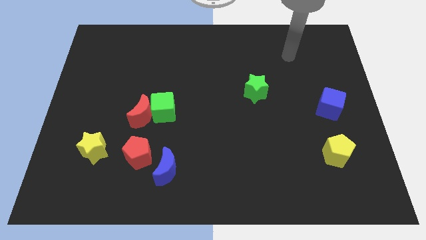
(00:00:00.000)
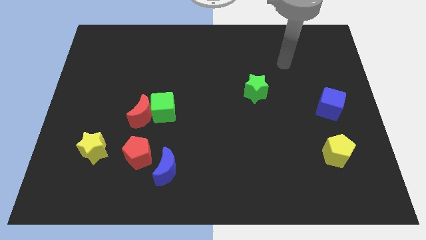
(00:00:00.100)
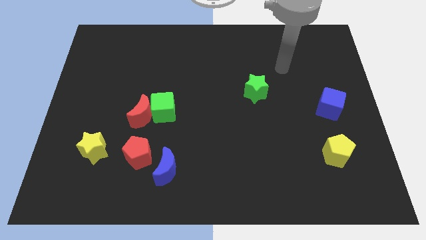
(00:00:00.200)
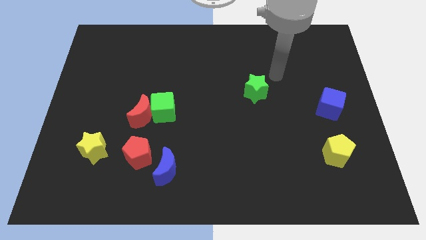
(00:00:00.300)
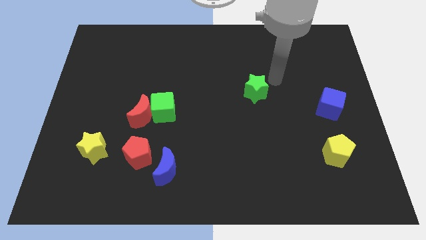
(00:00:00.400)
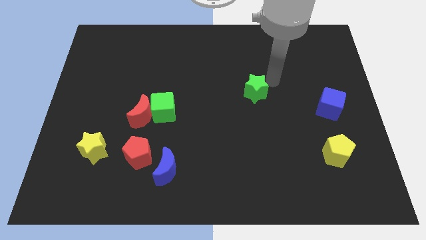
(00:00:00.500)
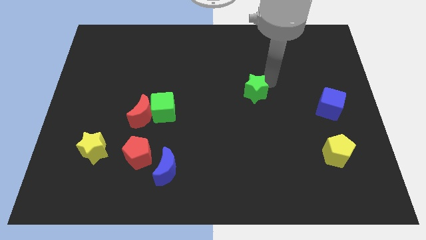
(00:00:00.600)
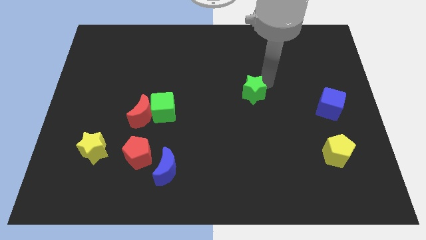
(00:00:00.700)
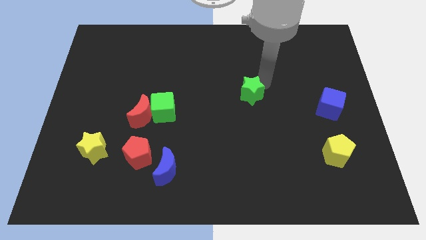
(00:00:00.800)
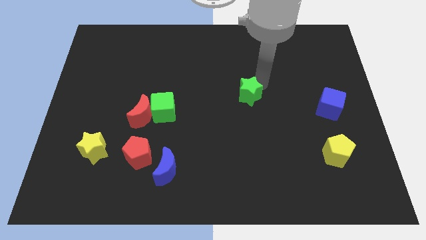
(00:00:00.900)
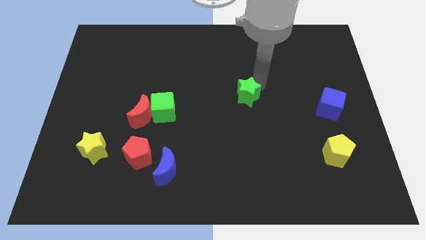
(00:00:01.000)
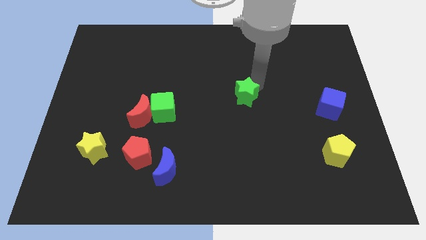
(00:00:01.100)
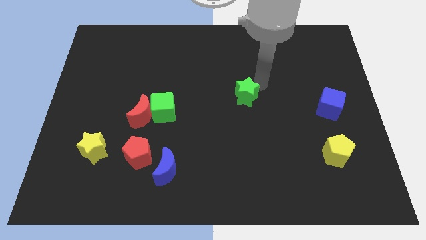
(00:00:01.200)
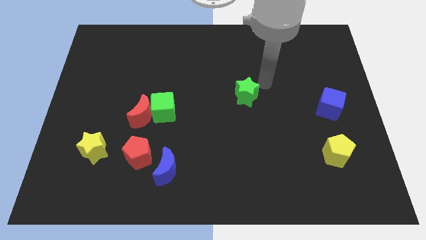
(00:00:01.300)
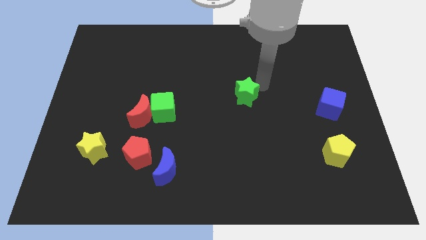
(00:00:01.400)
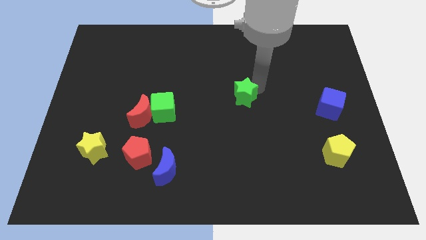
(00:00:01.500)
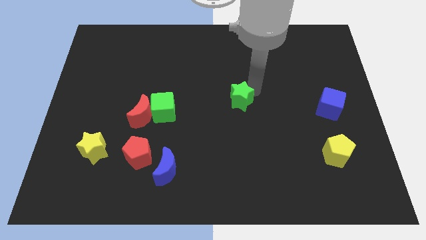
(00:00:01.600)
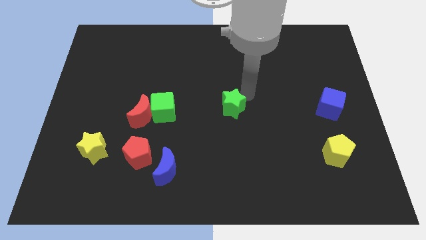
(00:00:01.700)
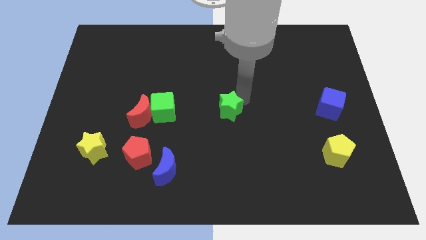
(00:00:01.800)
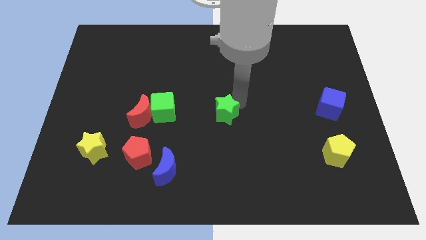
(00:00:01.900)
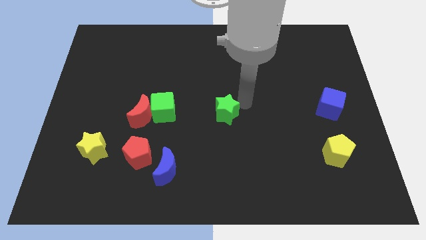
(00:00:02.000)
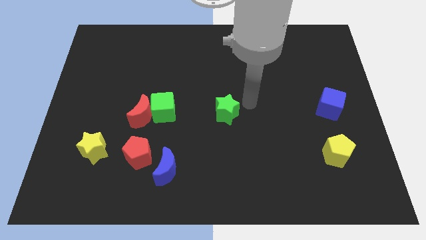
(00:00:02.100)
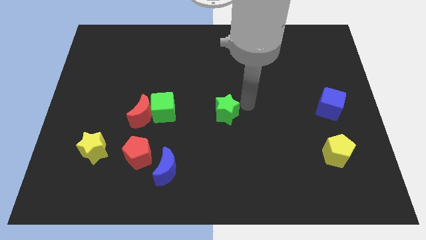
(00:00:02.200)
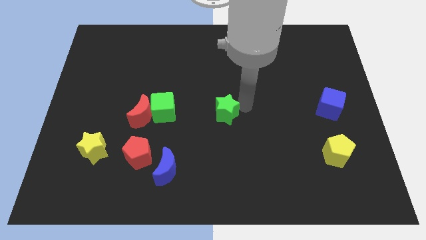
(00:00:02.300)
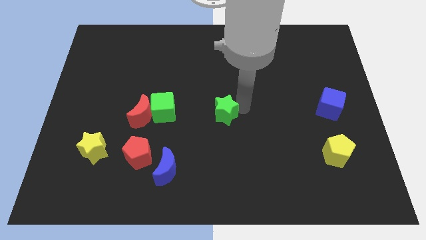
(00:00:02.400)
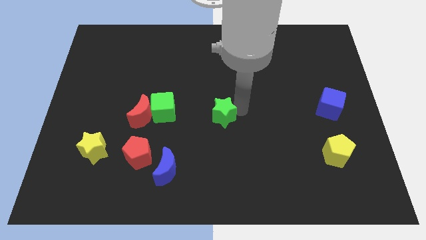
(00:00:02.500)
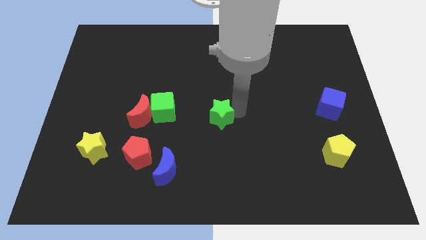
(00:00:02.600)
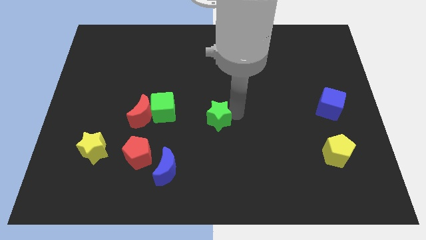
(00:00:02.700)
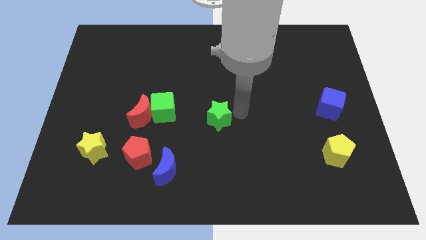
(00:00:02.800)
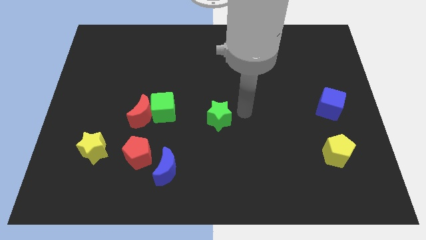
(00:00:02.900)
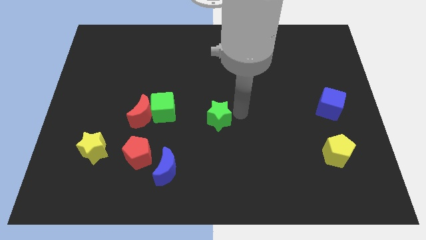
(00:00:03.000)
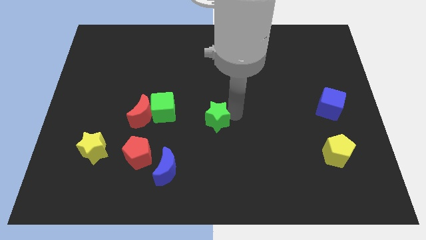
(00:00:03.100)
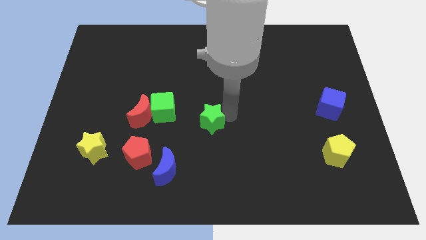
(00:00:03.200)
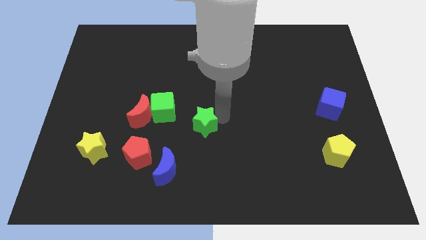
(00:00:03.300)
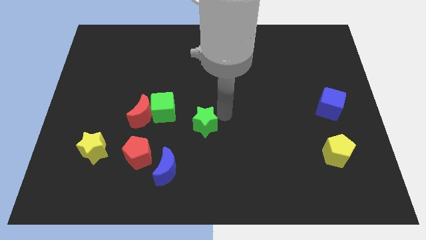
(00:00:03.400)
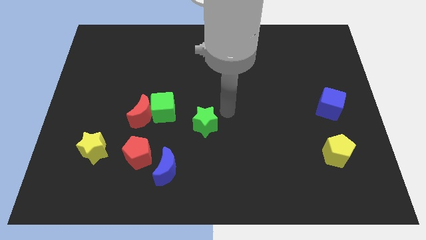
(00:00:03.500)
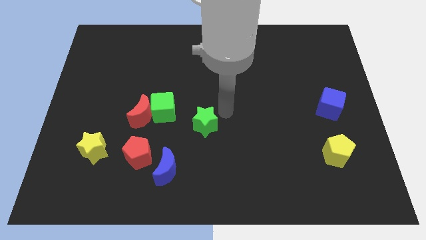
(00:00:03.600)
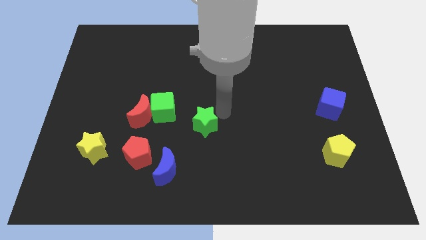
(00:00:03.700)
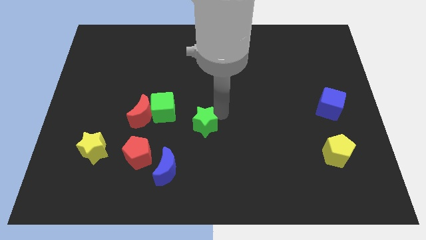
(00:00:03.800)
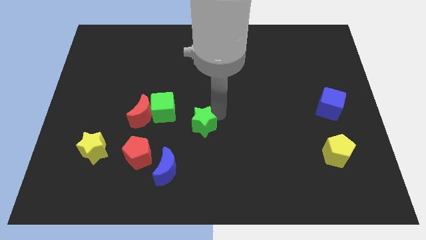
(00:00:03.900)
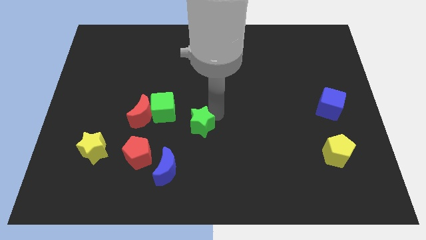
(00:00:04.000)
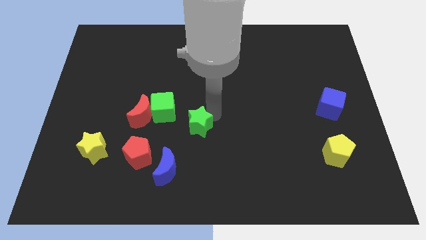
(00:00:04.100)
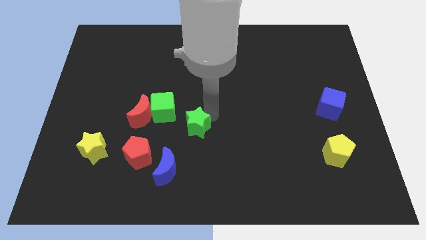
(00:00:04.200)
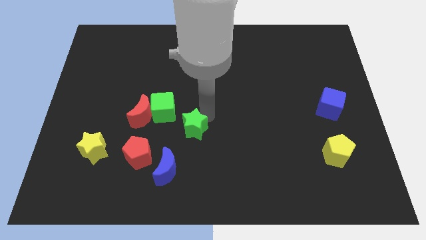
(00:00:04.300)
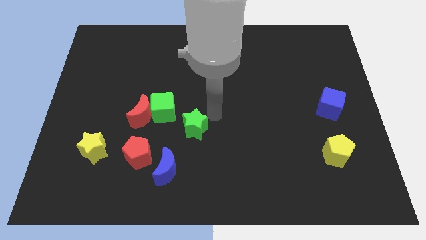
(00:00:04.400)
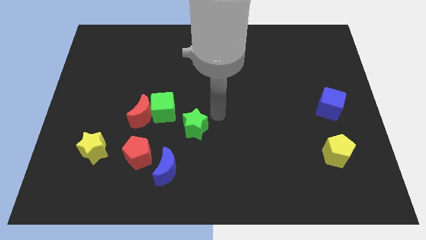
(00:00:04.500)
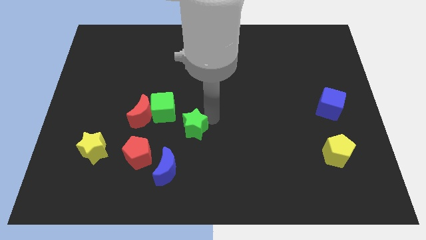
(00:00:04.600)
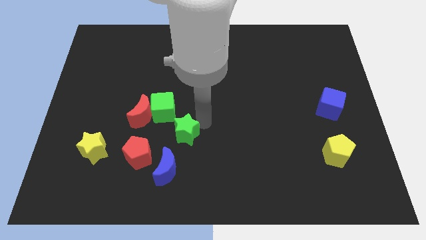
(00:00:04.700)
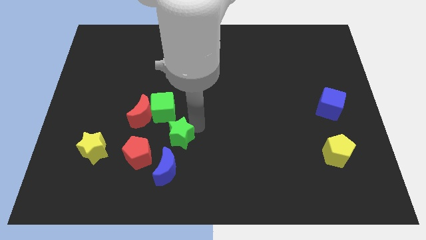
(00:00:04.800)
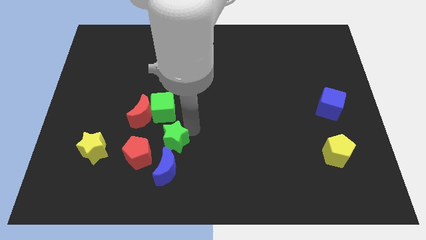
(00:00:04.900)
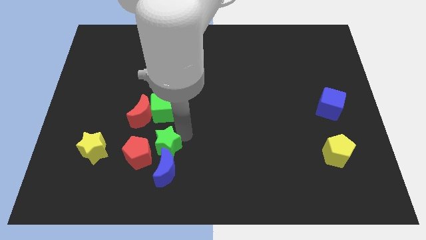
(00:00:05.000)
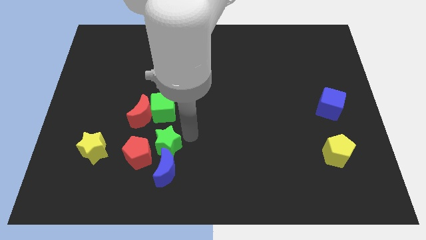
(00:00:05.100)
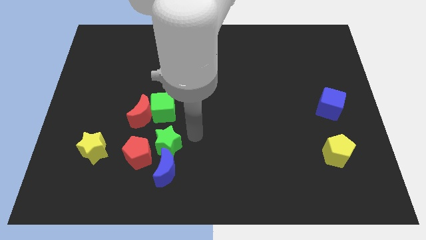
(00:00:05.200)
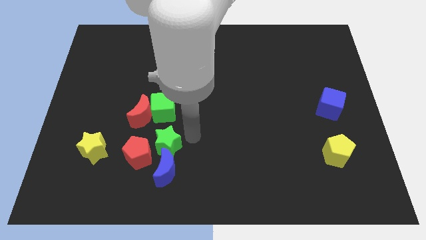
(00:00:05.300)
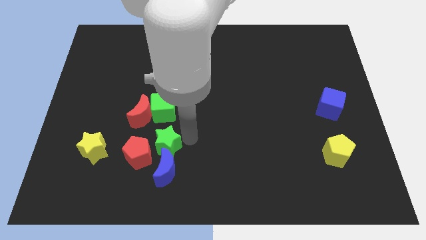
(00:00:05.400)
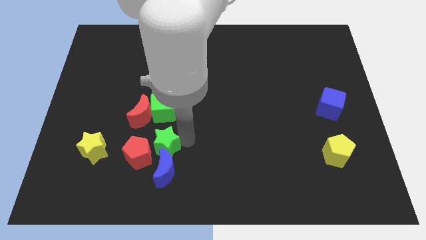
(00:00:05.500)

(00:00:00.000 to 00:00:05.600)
push the green star next to the red pentagon

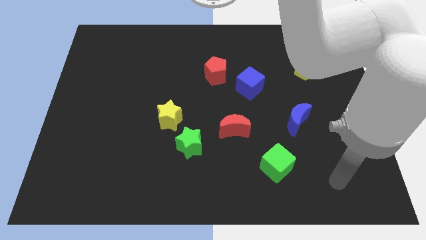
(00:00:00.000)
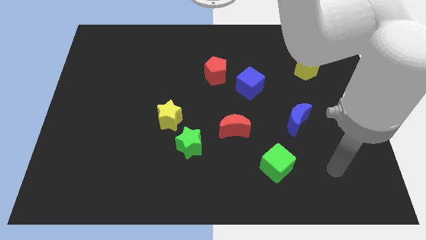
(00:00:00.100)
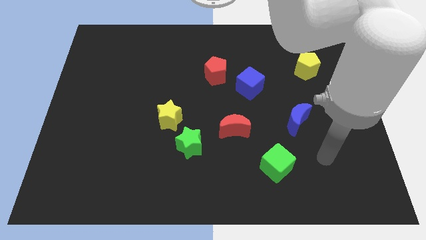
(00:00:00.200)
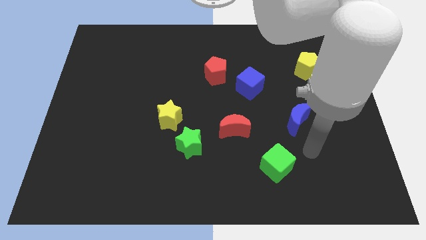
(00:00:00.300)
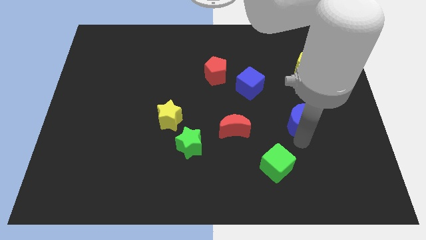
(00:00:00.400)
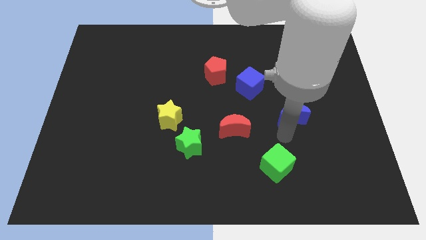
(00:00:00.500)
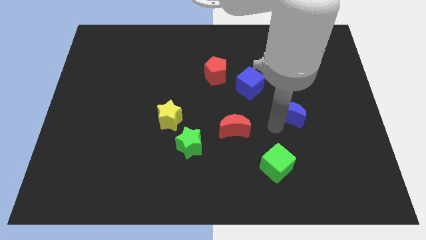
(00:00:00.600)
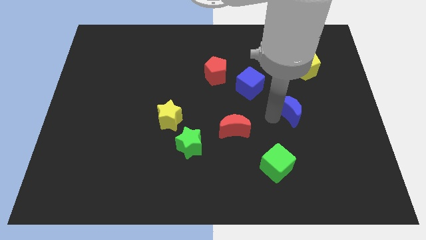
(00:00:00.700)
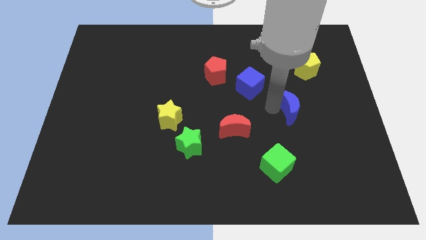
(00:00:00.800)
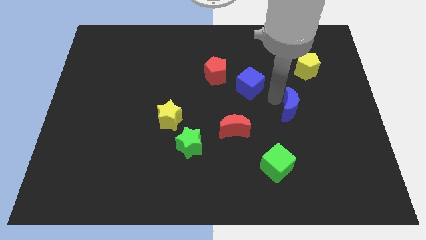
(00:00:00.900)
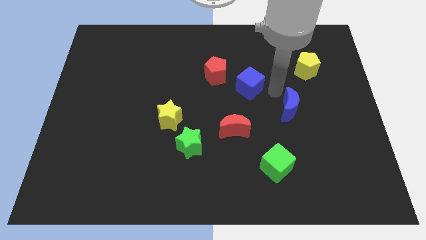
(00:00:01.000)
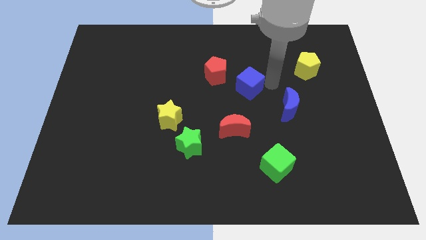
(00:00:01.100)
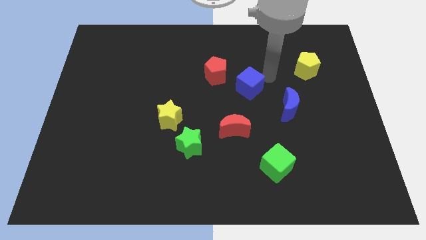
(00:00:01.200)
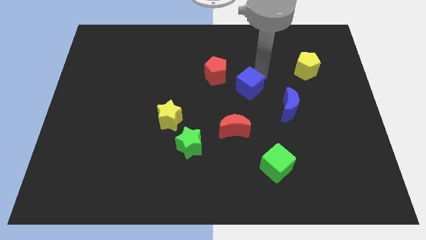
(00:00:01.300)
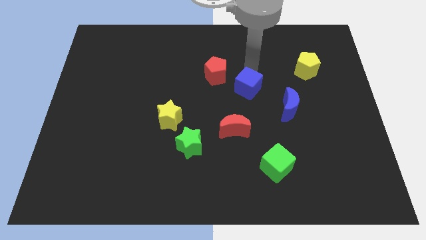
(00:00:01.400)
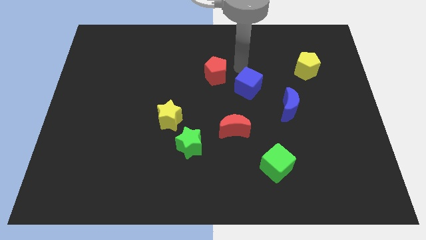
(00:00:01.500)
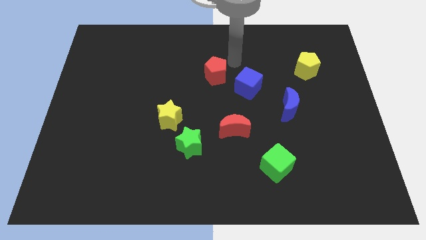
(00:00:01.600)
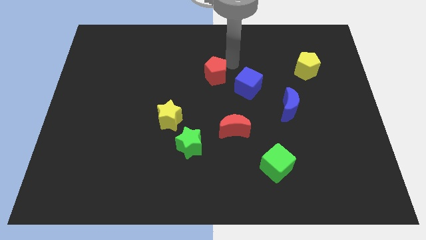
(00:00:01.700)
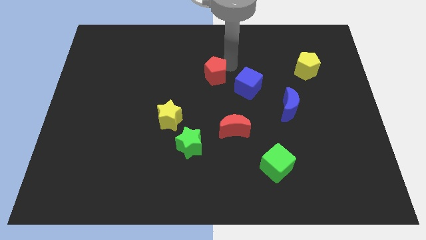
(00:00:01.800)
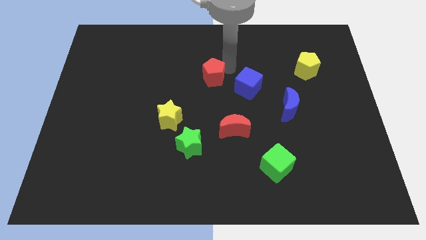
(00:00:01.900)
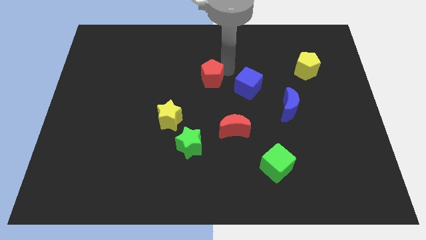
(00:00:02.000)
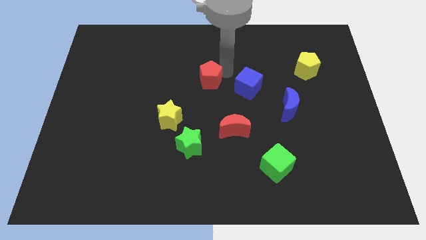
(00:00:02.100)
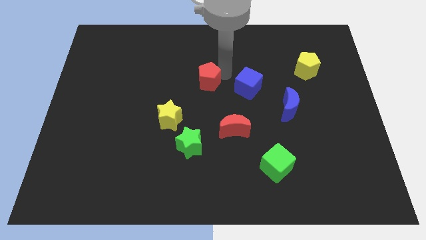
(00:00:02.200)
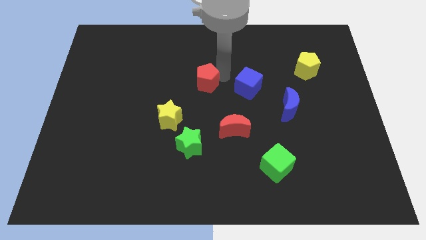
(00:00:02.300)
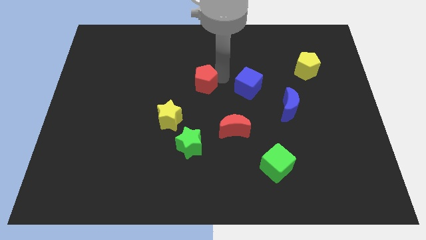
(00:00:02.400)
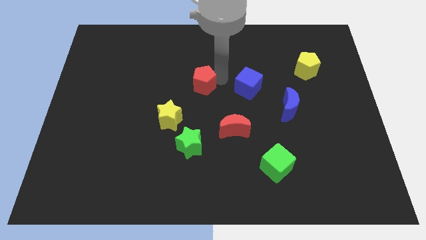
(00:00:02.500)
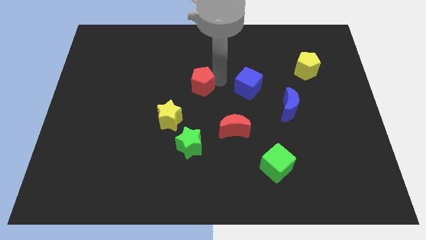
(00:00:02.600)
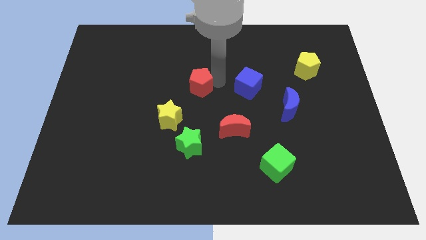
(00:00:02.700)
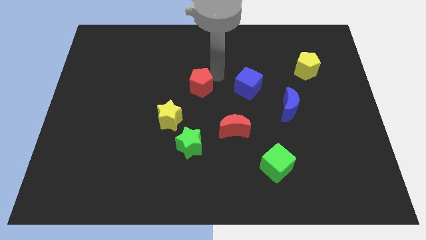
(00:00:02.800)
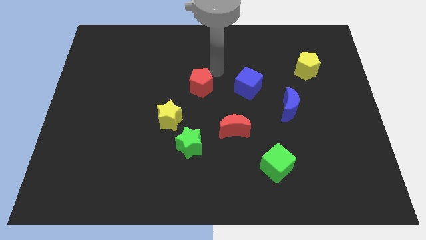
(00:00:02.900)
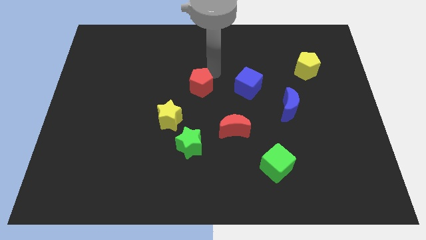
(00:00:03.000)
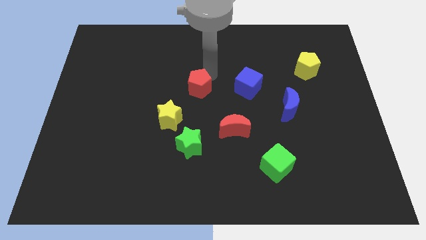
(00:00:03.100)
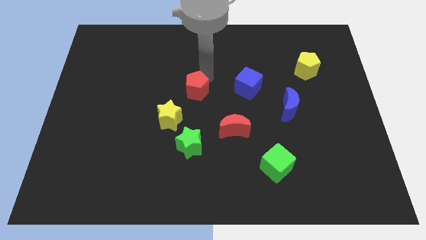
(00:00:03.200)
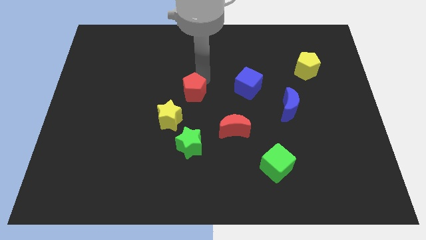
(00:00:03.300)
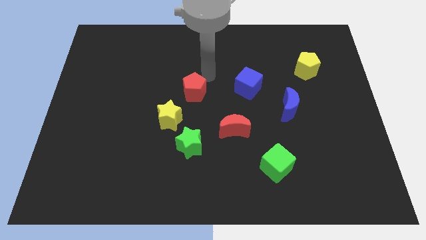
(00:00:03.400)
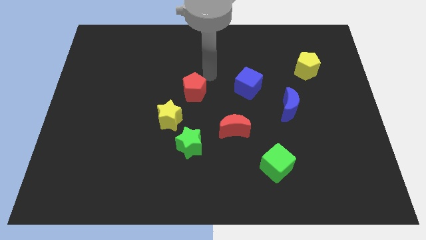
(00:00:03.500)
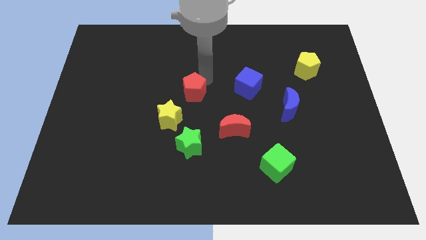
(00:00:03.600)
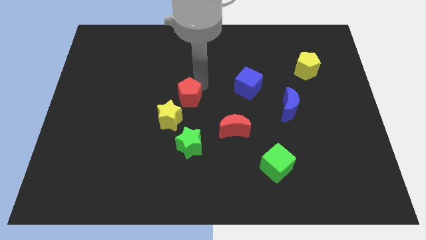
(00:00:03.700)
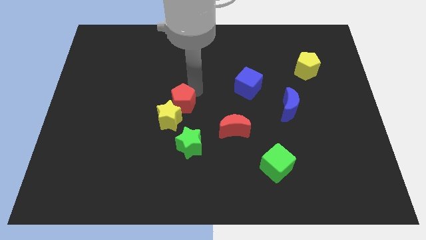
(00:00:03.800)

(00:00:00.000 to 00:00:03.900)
put the red pentagon close to the yellow star
